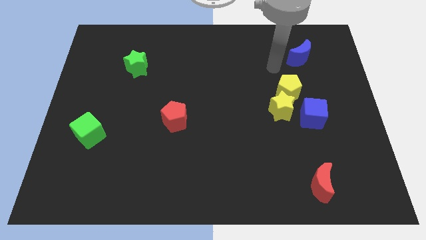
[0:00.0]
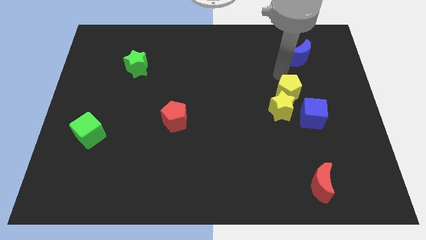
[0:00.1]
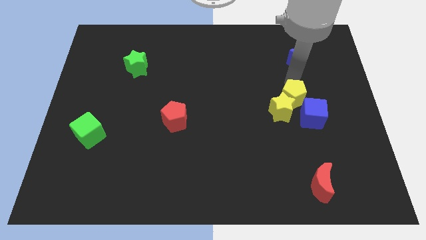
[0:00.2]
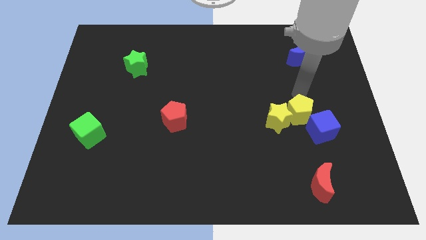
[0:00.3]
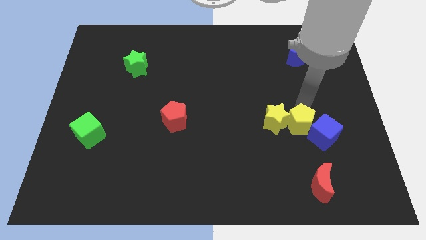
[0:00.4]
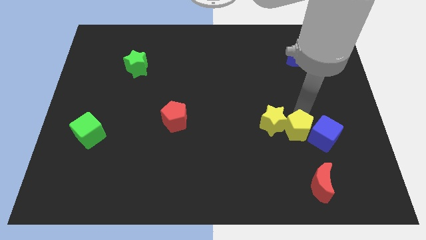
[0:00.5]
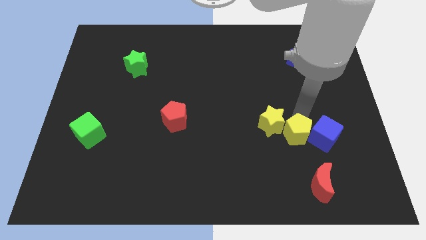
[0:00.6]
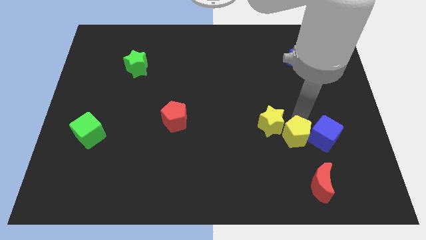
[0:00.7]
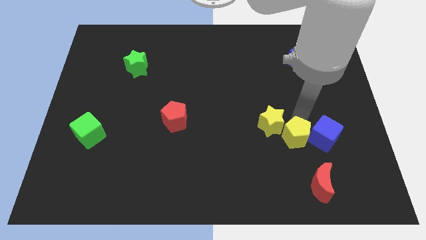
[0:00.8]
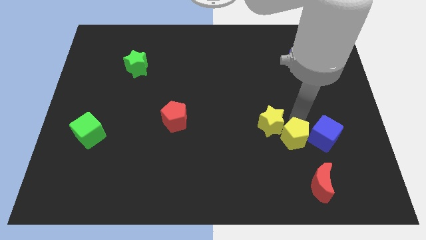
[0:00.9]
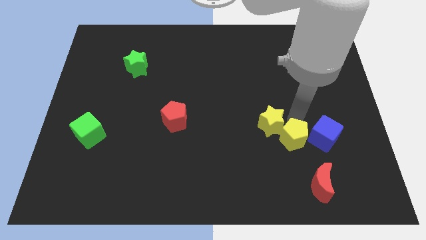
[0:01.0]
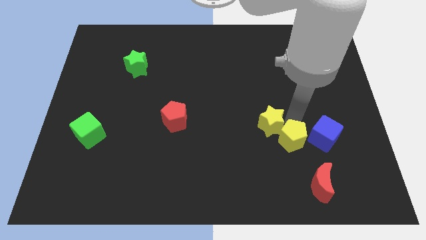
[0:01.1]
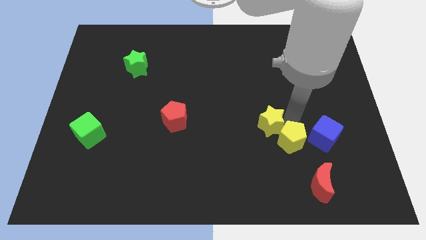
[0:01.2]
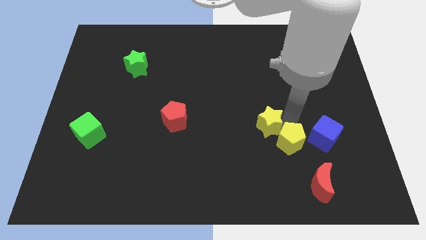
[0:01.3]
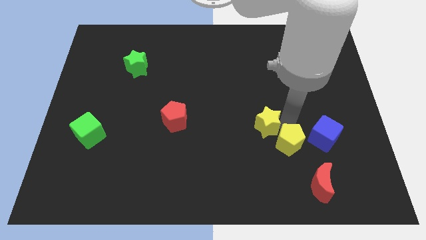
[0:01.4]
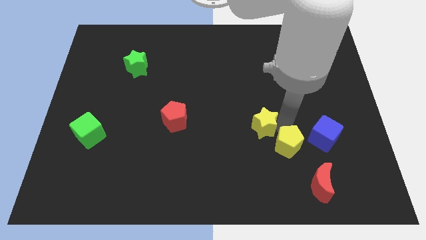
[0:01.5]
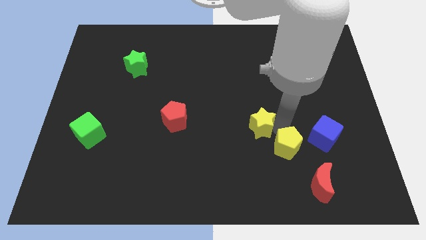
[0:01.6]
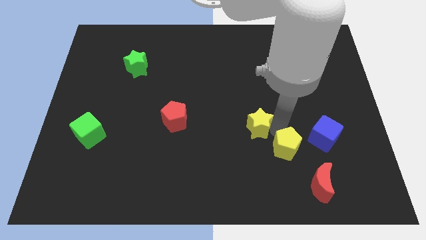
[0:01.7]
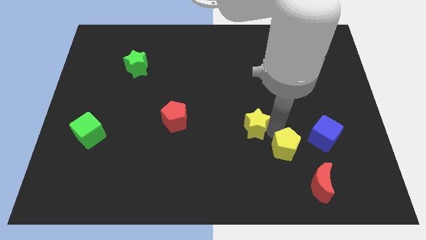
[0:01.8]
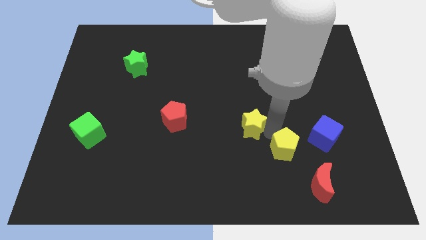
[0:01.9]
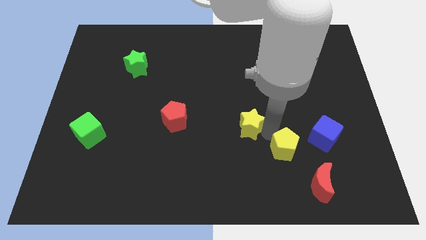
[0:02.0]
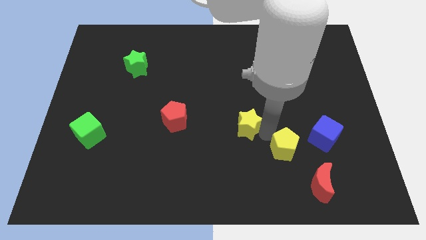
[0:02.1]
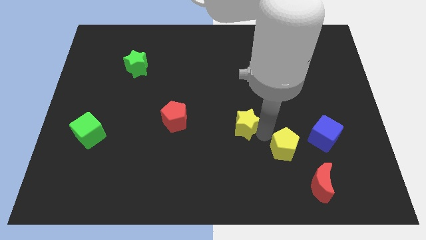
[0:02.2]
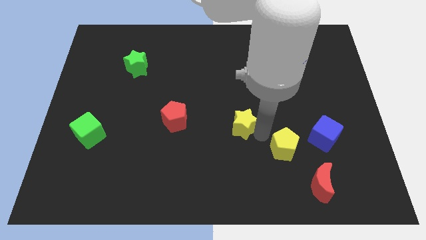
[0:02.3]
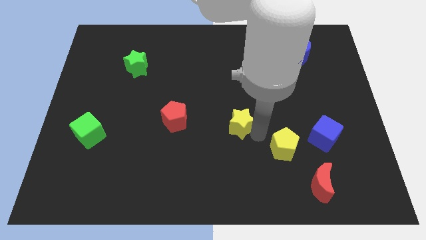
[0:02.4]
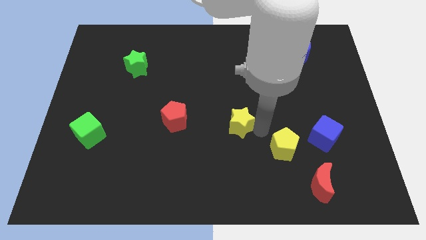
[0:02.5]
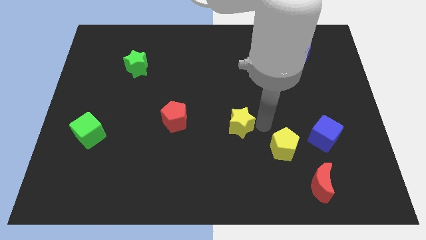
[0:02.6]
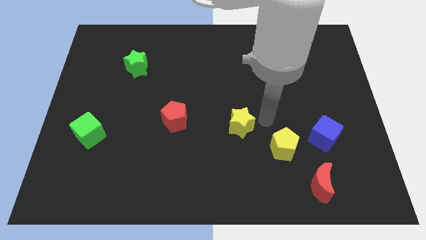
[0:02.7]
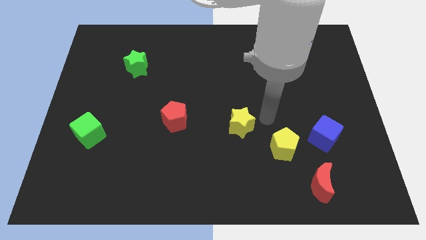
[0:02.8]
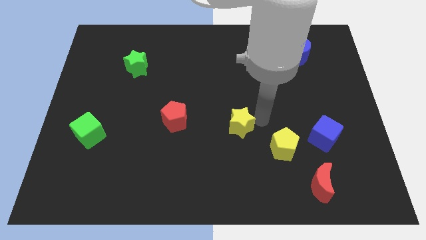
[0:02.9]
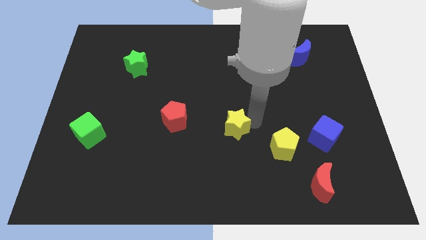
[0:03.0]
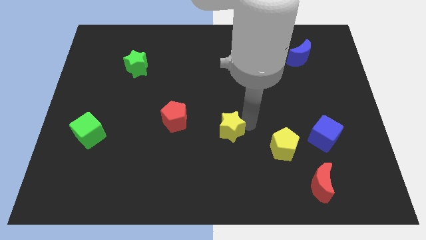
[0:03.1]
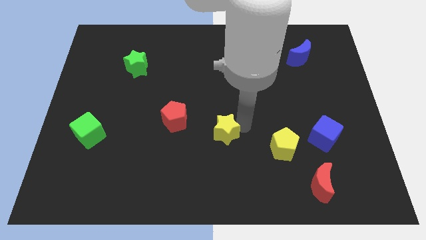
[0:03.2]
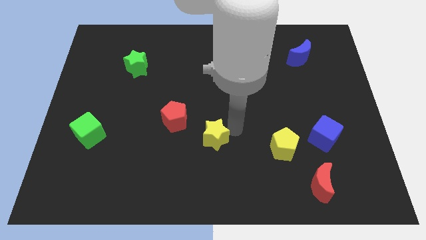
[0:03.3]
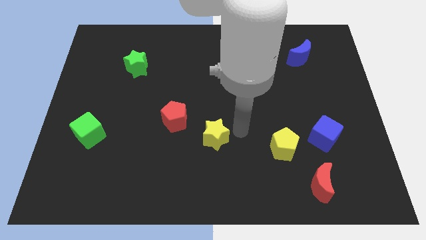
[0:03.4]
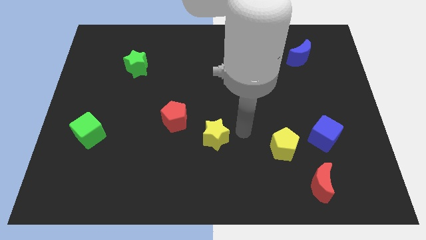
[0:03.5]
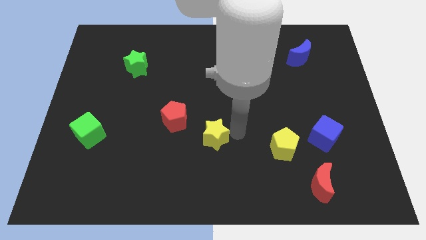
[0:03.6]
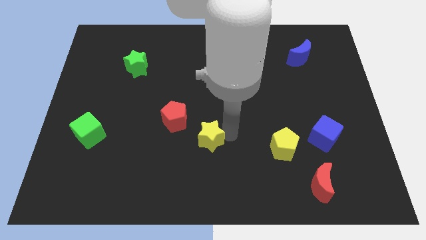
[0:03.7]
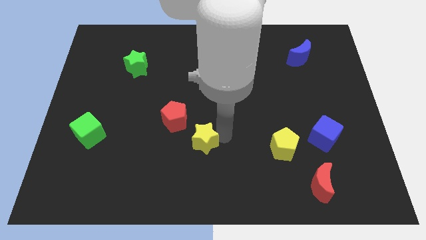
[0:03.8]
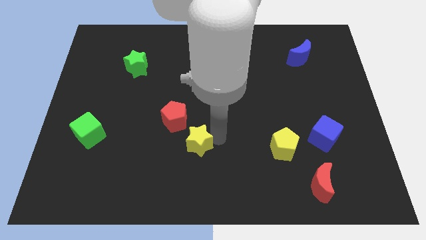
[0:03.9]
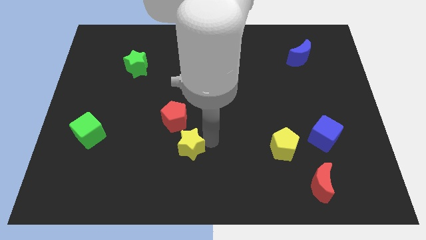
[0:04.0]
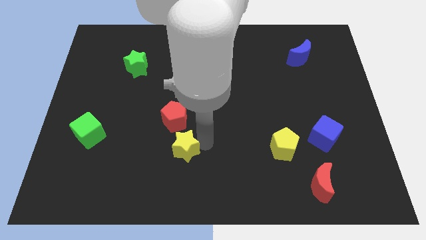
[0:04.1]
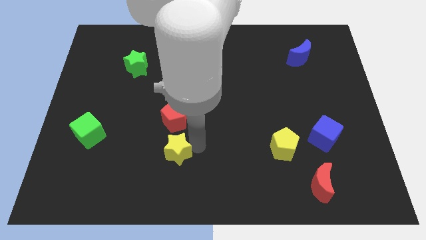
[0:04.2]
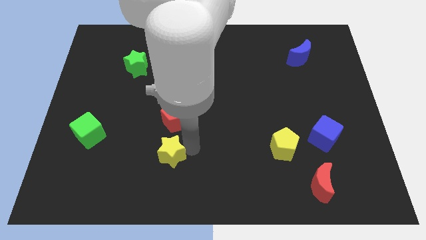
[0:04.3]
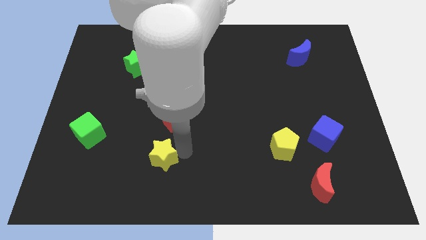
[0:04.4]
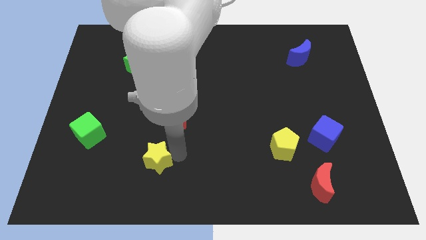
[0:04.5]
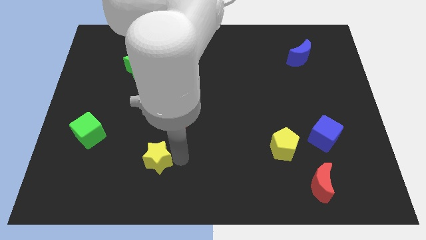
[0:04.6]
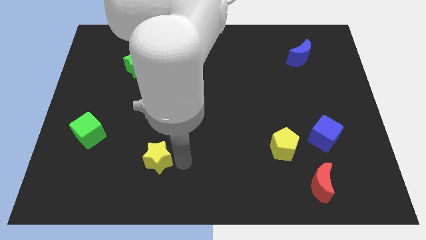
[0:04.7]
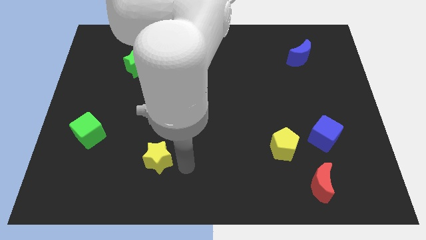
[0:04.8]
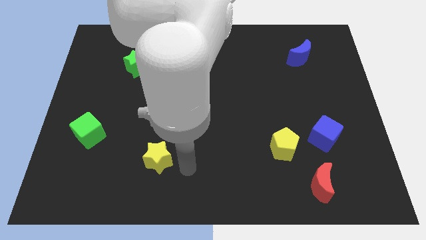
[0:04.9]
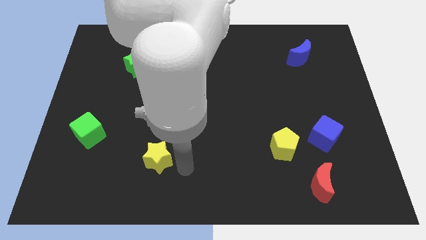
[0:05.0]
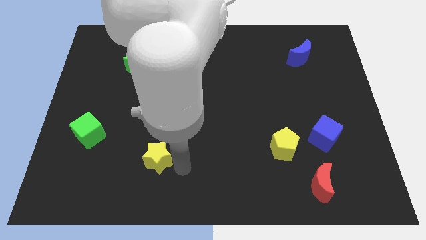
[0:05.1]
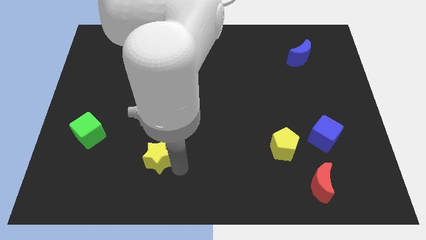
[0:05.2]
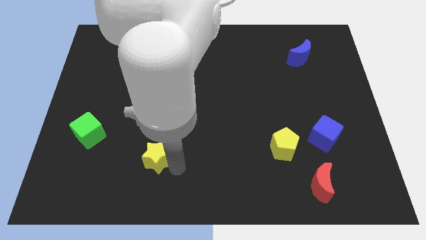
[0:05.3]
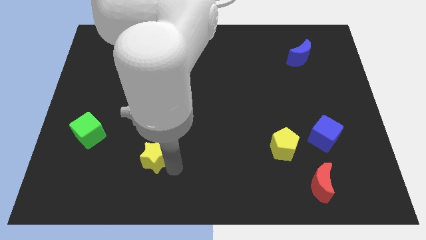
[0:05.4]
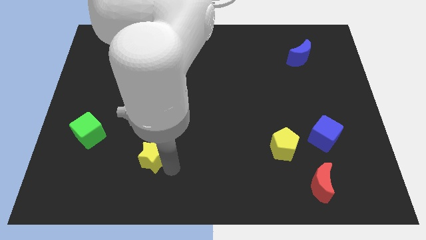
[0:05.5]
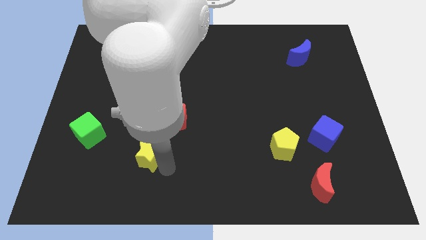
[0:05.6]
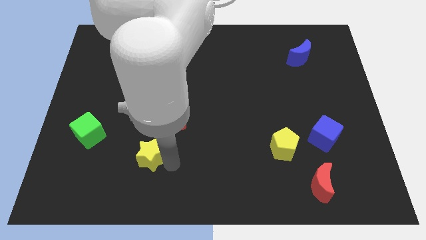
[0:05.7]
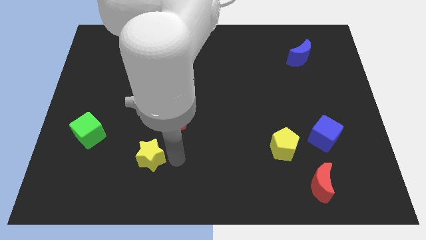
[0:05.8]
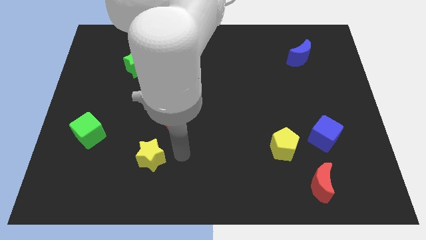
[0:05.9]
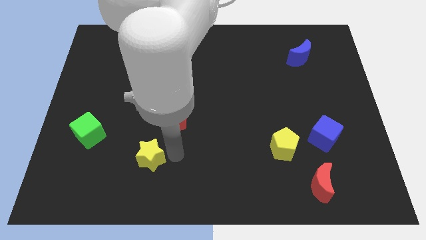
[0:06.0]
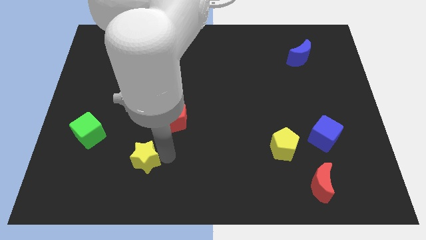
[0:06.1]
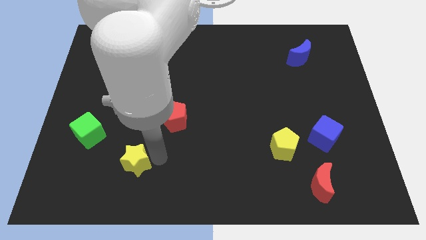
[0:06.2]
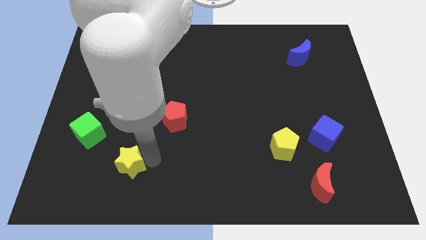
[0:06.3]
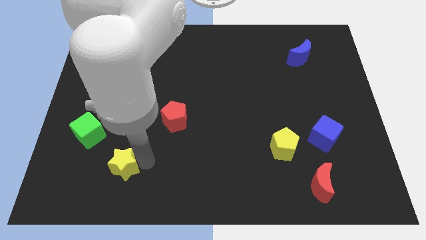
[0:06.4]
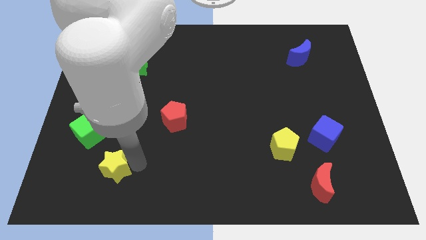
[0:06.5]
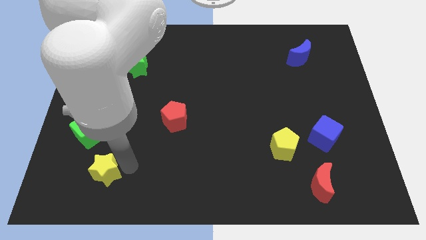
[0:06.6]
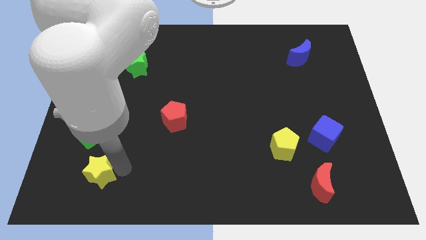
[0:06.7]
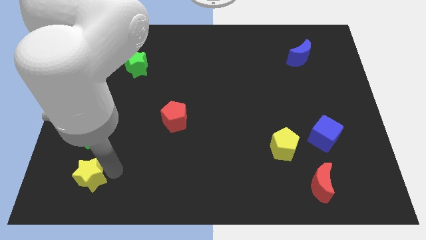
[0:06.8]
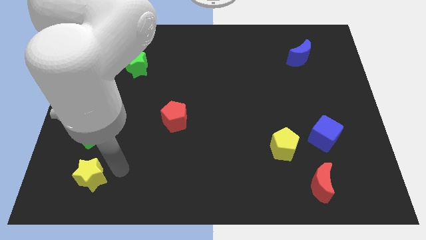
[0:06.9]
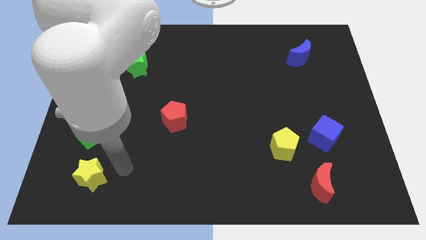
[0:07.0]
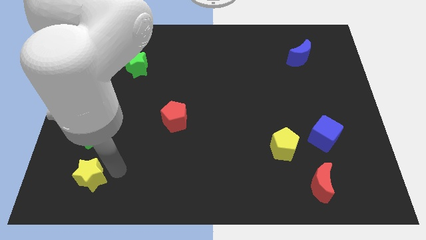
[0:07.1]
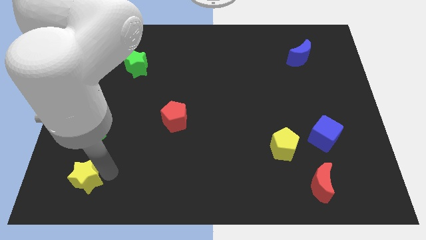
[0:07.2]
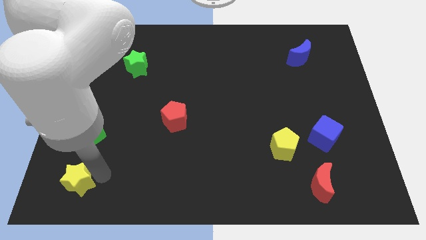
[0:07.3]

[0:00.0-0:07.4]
slide the yellow star to the bottom left
